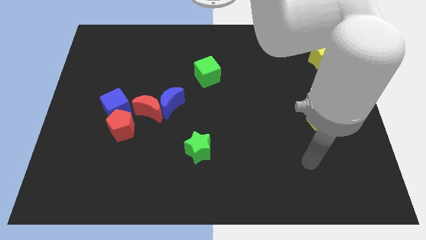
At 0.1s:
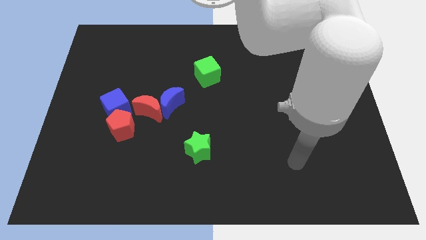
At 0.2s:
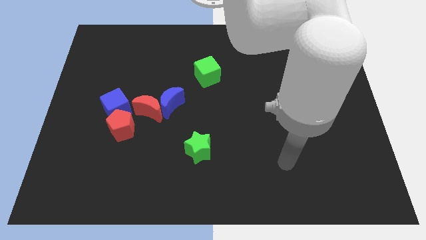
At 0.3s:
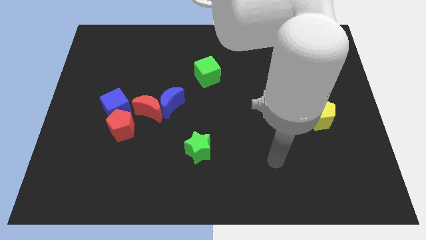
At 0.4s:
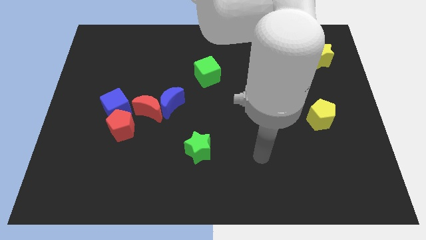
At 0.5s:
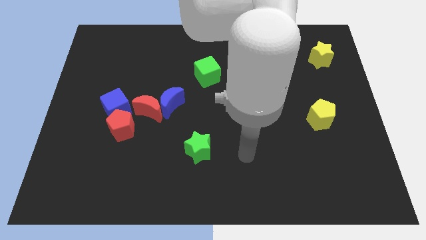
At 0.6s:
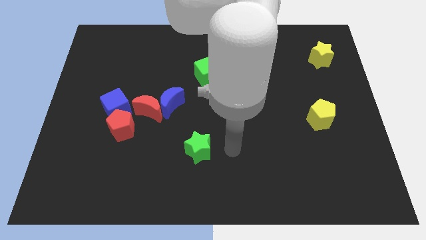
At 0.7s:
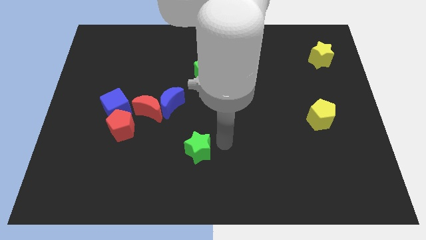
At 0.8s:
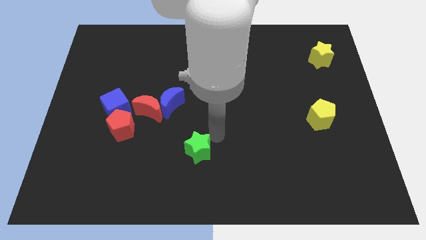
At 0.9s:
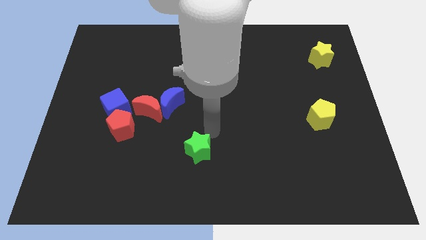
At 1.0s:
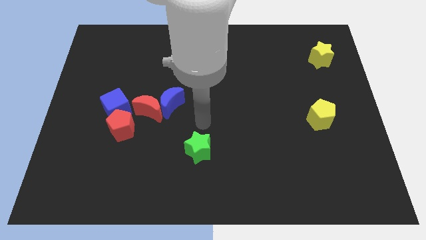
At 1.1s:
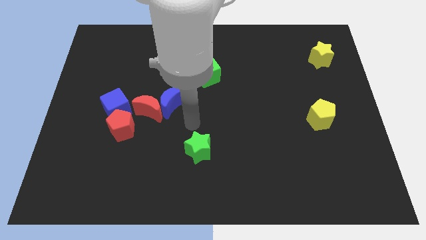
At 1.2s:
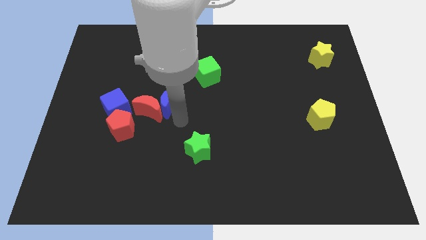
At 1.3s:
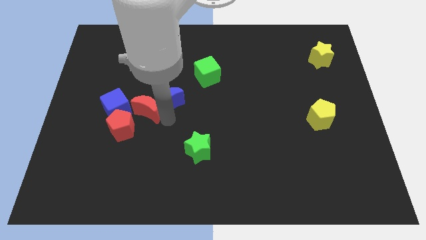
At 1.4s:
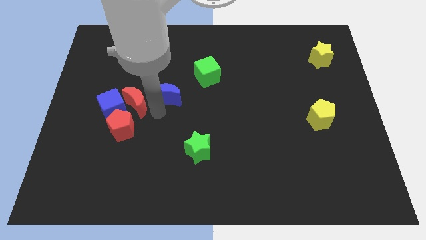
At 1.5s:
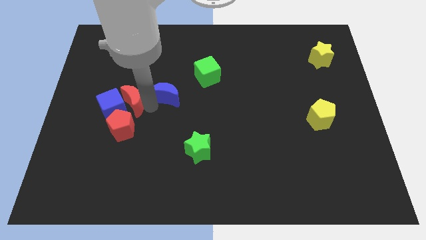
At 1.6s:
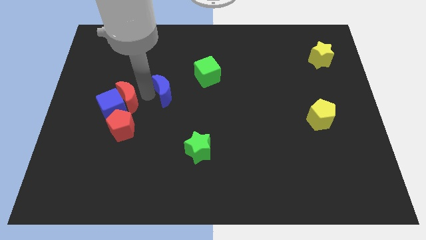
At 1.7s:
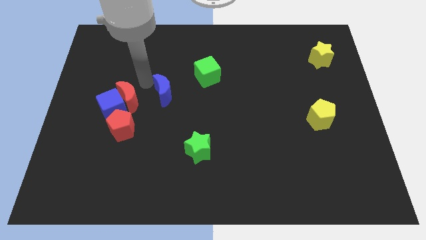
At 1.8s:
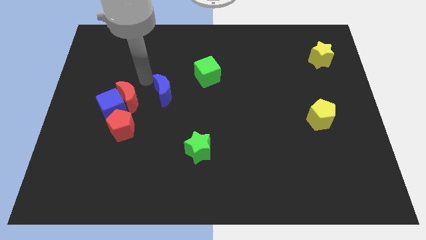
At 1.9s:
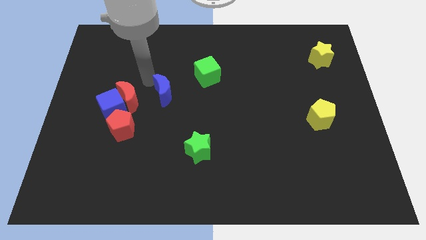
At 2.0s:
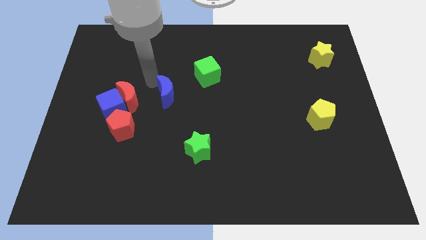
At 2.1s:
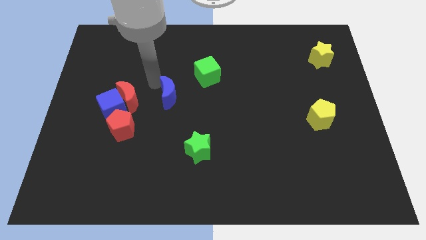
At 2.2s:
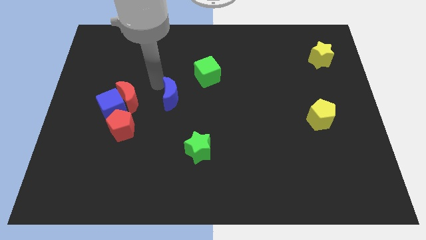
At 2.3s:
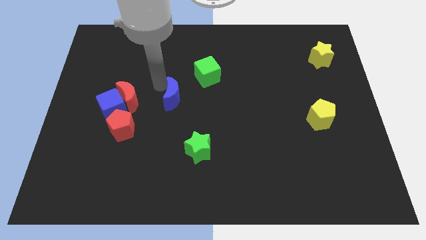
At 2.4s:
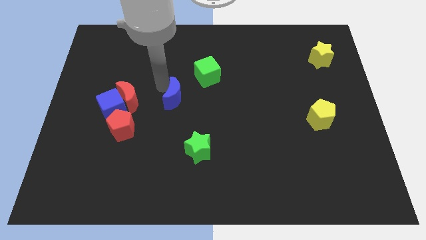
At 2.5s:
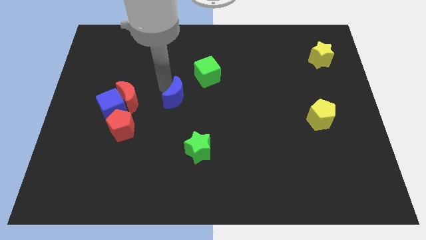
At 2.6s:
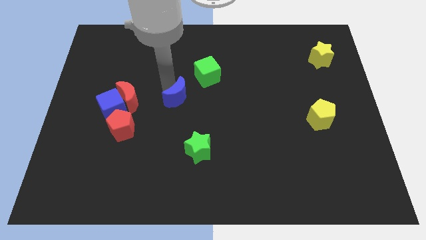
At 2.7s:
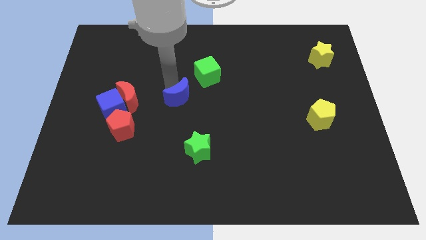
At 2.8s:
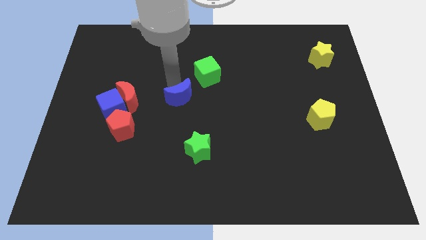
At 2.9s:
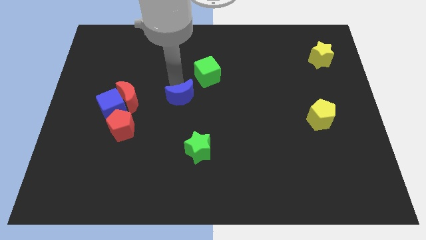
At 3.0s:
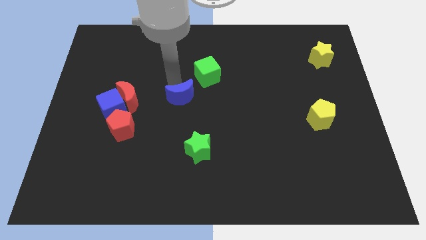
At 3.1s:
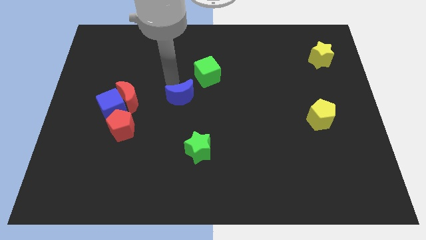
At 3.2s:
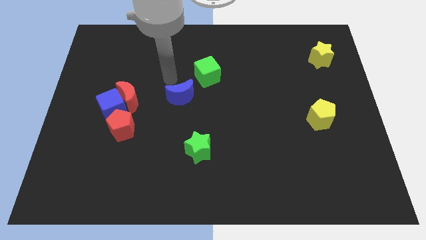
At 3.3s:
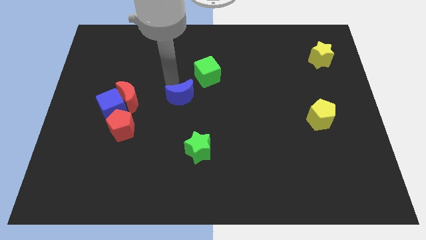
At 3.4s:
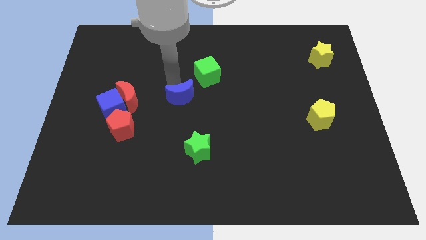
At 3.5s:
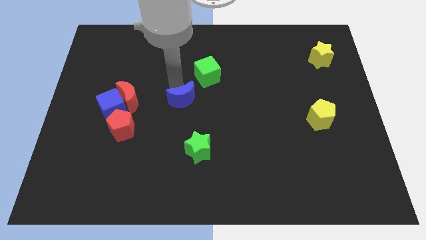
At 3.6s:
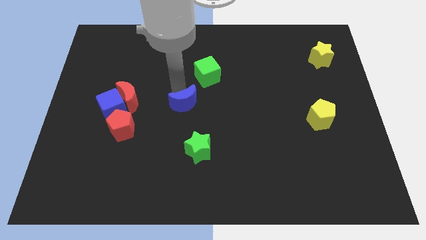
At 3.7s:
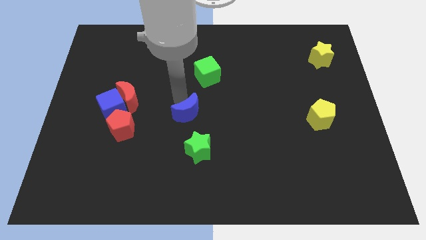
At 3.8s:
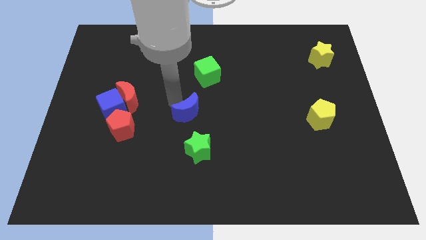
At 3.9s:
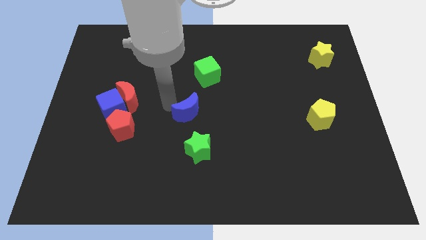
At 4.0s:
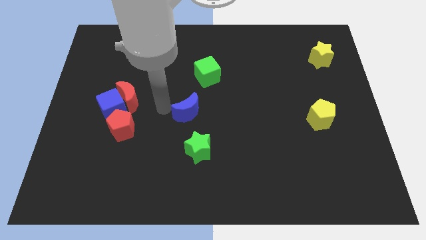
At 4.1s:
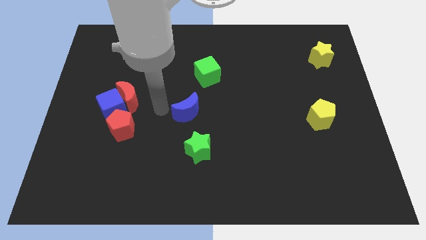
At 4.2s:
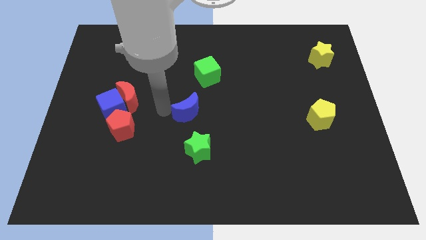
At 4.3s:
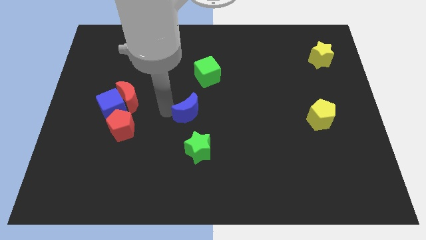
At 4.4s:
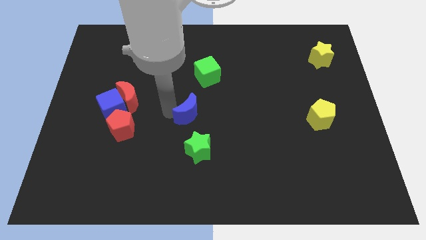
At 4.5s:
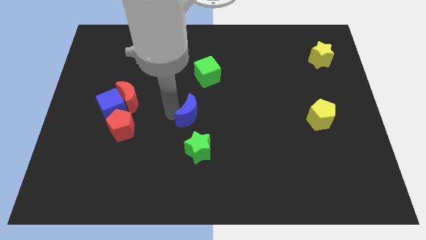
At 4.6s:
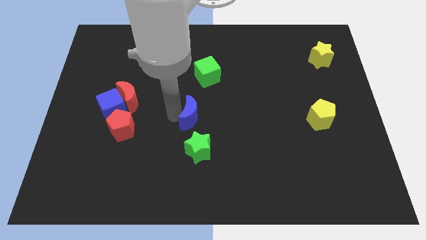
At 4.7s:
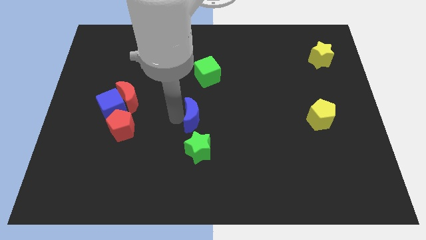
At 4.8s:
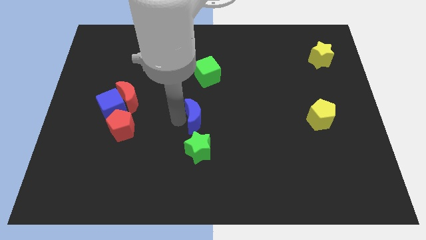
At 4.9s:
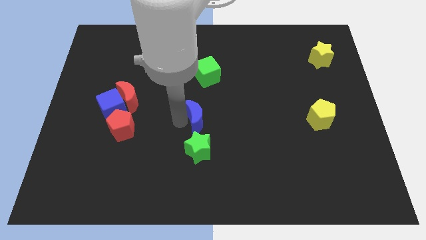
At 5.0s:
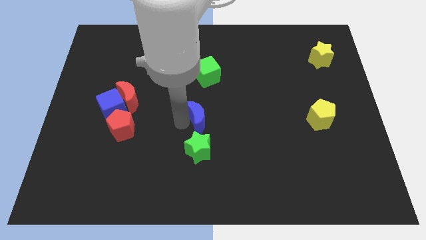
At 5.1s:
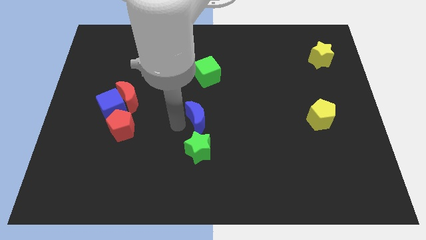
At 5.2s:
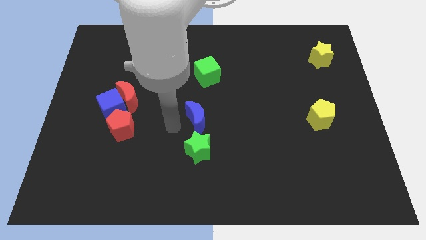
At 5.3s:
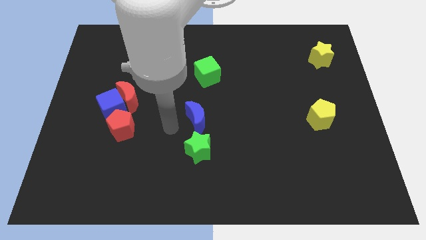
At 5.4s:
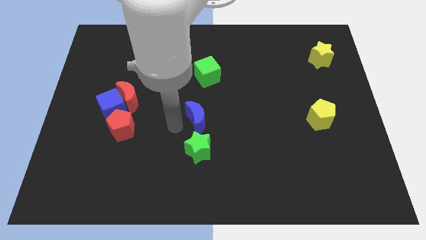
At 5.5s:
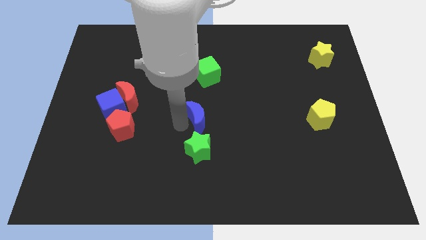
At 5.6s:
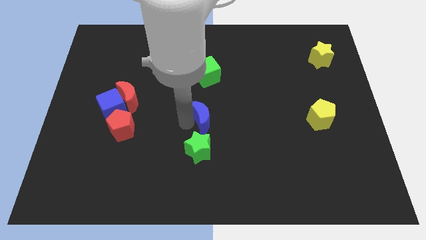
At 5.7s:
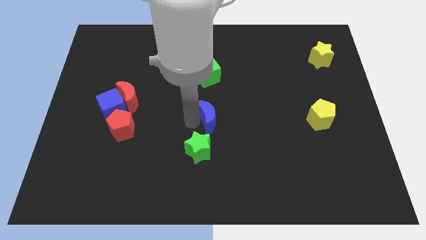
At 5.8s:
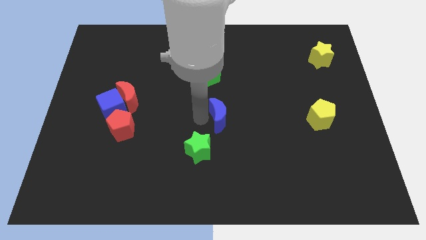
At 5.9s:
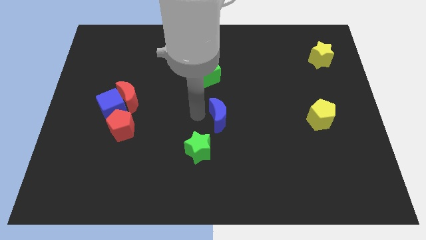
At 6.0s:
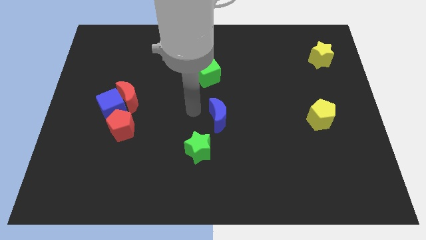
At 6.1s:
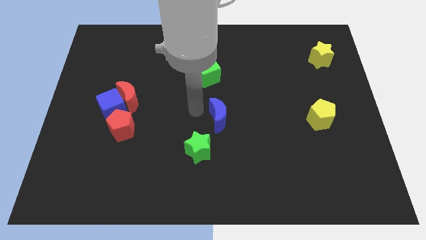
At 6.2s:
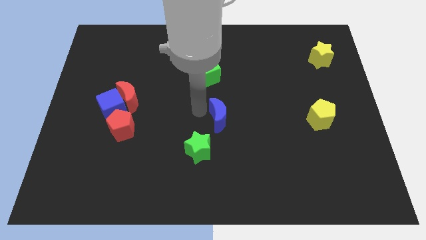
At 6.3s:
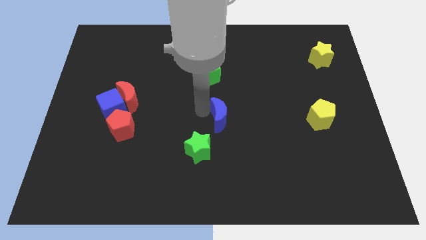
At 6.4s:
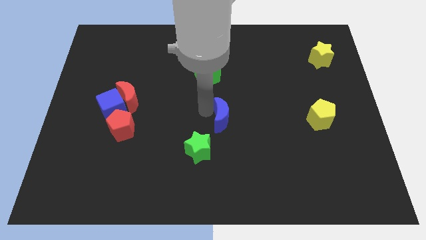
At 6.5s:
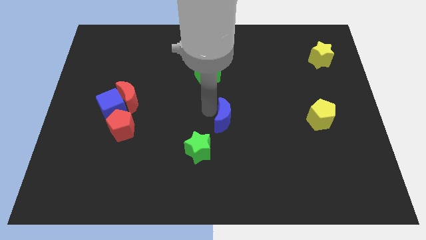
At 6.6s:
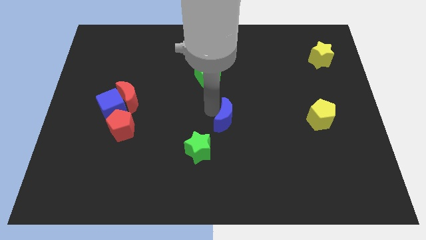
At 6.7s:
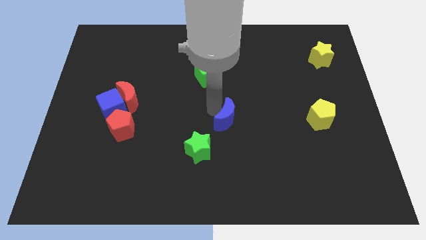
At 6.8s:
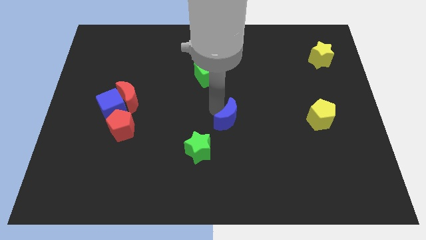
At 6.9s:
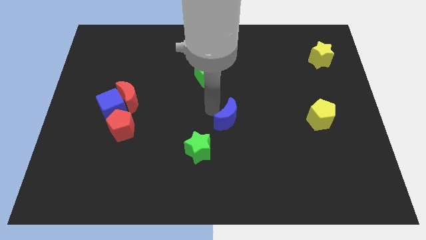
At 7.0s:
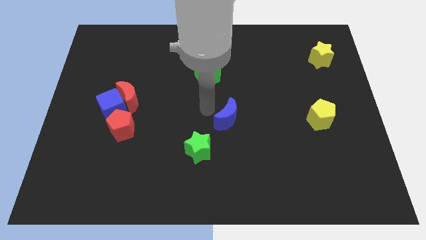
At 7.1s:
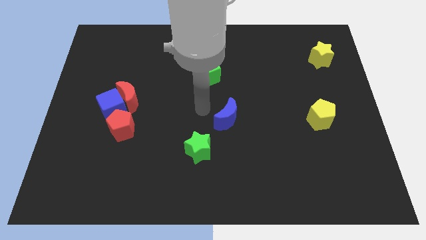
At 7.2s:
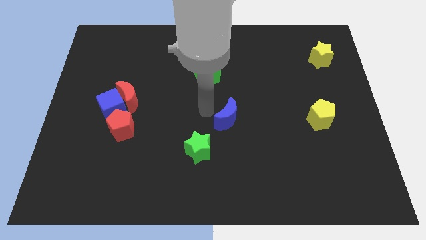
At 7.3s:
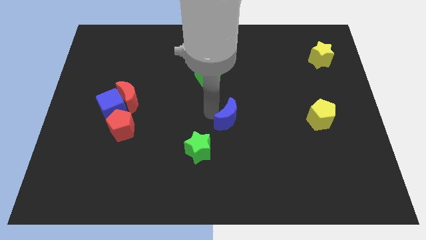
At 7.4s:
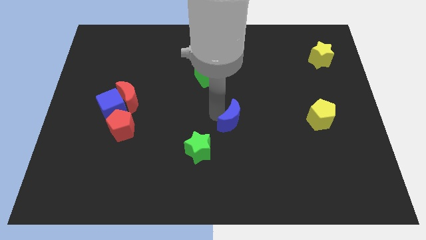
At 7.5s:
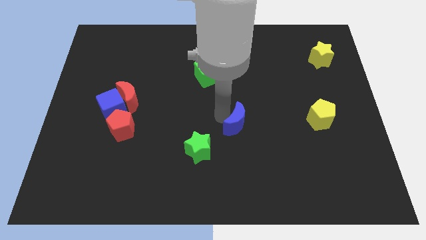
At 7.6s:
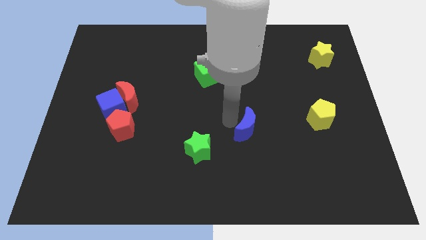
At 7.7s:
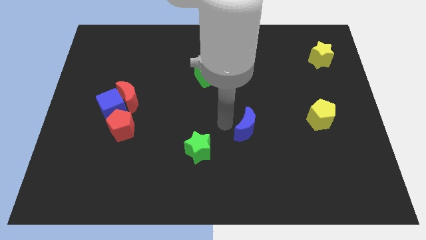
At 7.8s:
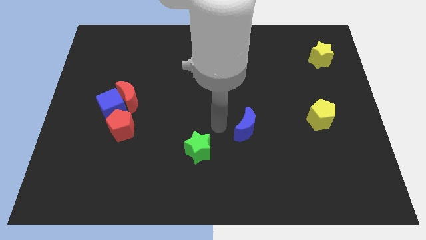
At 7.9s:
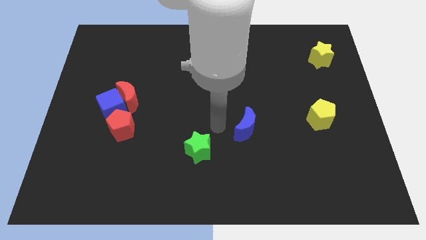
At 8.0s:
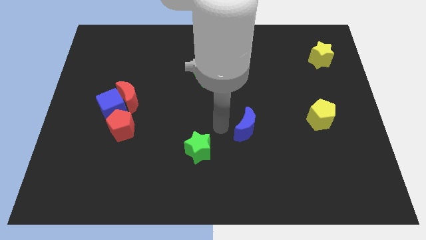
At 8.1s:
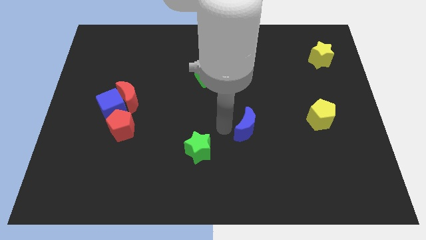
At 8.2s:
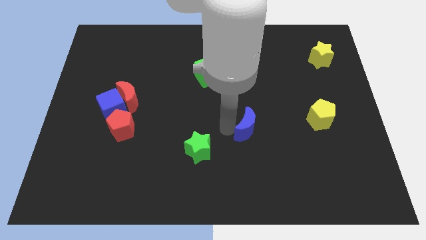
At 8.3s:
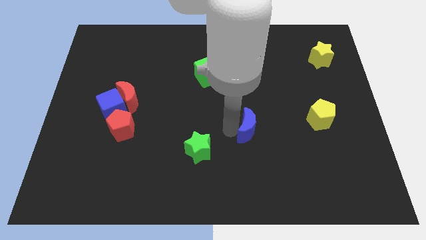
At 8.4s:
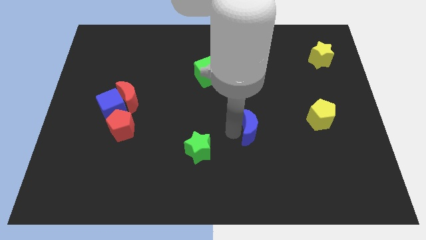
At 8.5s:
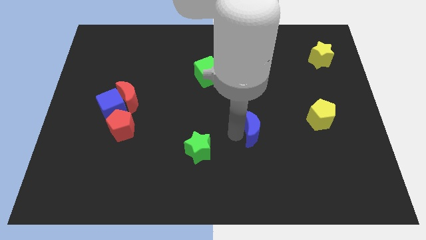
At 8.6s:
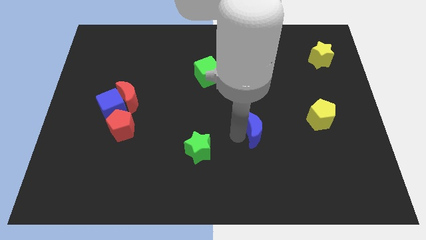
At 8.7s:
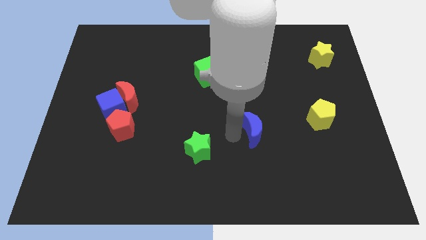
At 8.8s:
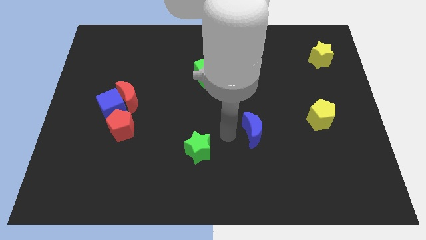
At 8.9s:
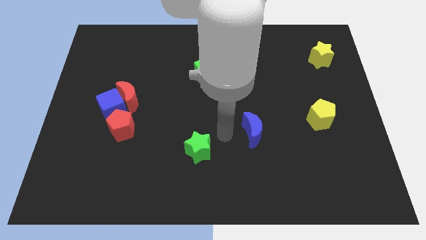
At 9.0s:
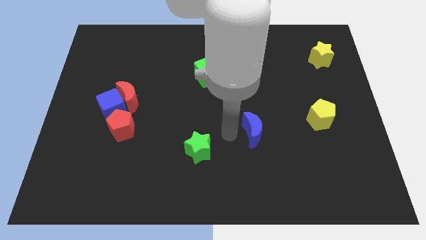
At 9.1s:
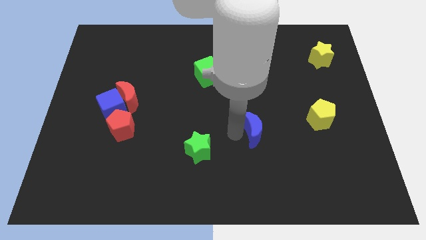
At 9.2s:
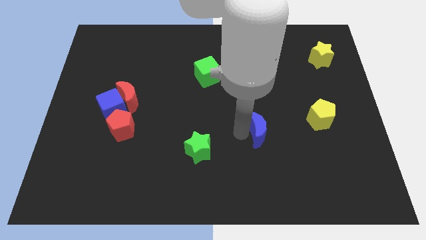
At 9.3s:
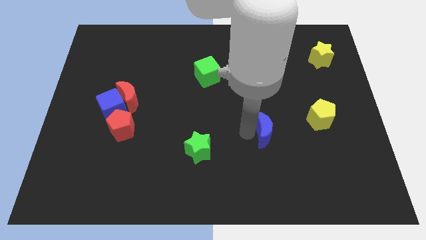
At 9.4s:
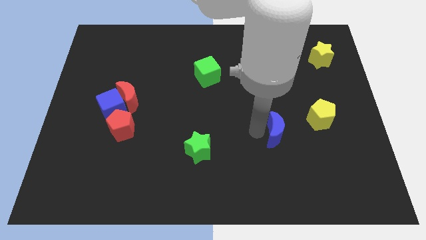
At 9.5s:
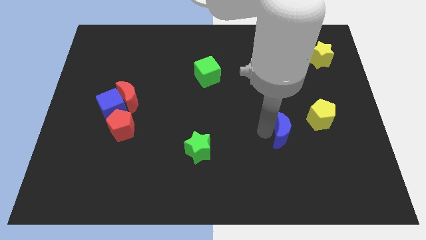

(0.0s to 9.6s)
put the blue moon diagonally down and to the left of the yellow pentagon
